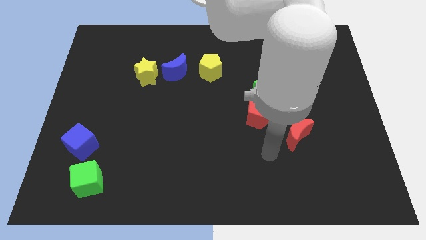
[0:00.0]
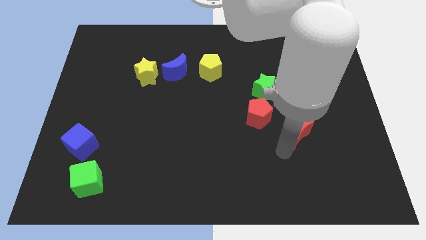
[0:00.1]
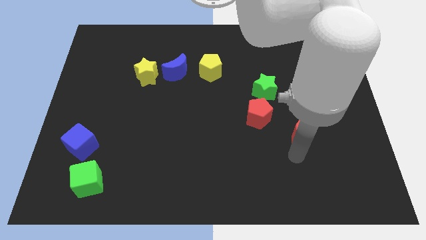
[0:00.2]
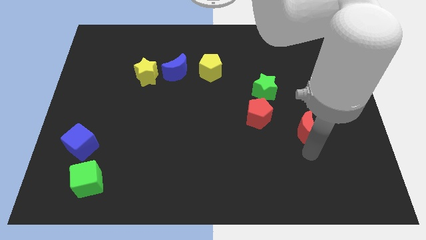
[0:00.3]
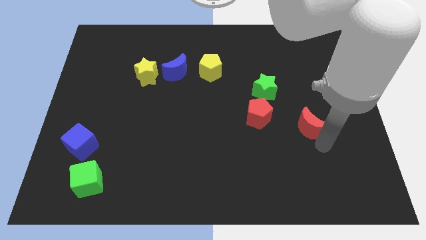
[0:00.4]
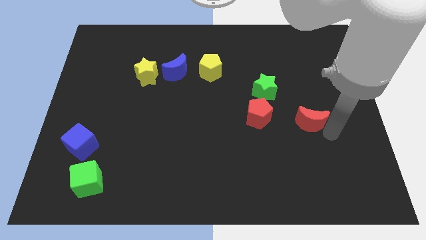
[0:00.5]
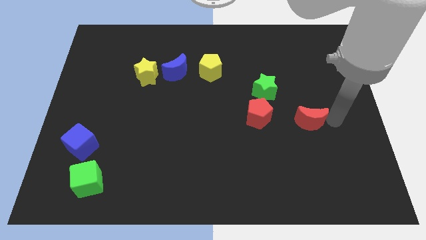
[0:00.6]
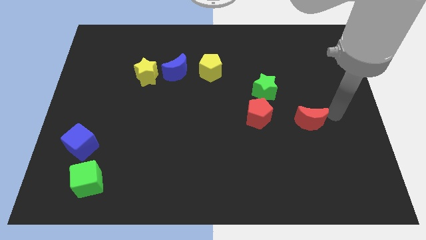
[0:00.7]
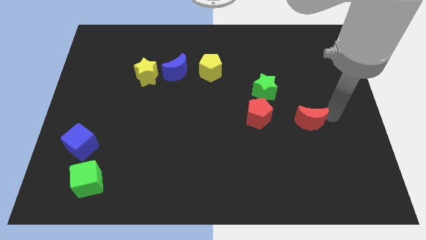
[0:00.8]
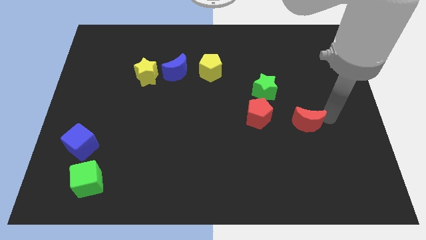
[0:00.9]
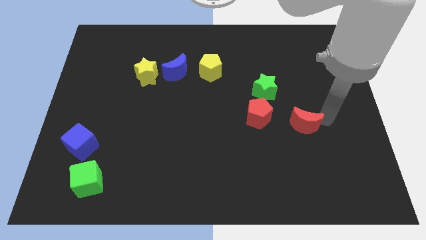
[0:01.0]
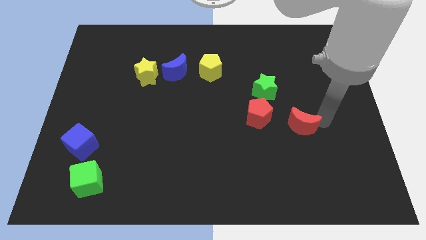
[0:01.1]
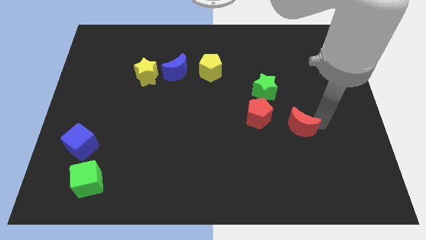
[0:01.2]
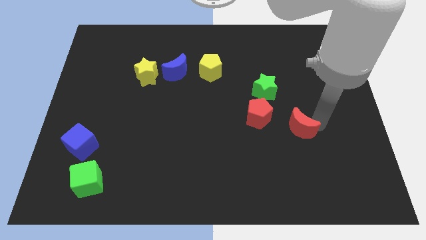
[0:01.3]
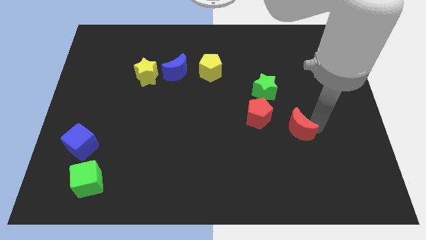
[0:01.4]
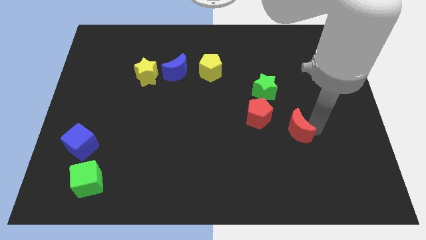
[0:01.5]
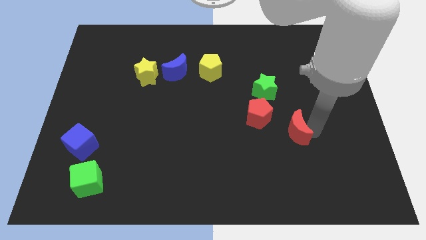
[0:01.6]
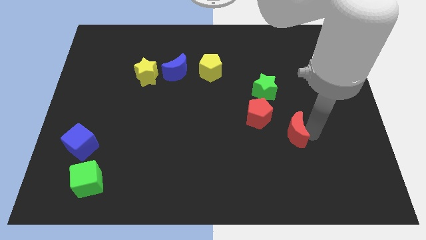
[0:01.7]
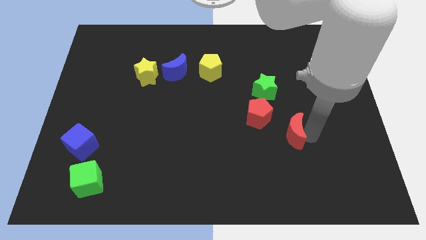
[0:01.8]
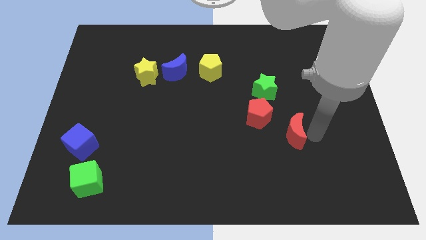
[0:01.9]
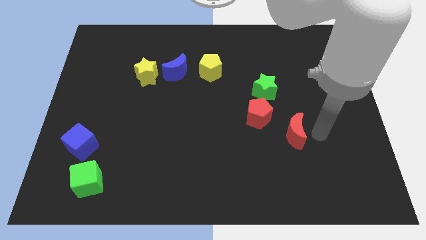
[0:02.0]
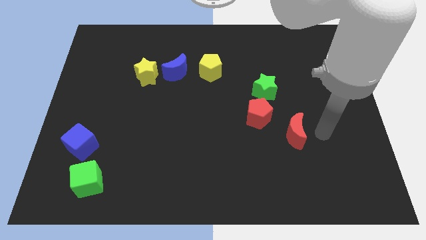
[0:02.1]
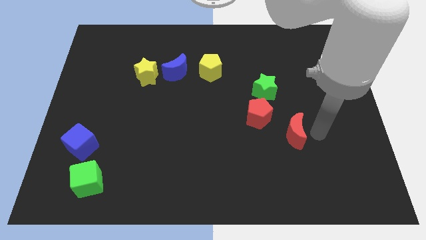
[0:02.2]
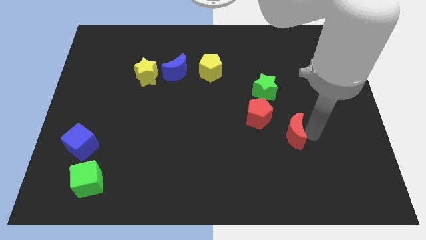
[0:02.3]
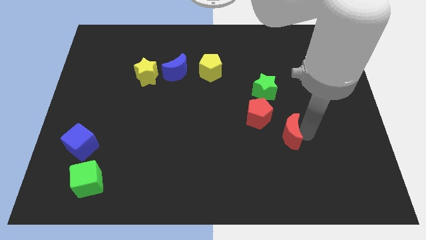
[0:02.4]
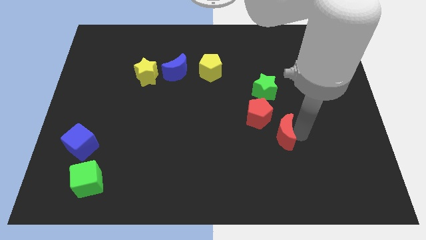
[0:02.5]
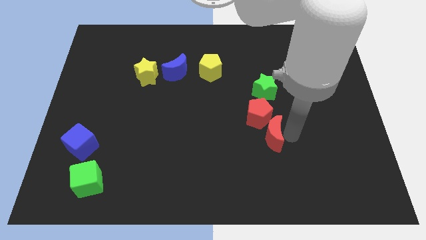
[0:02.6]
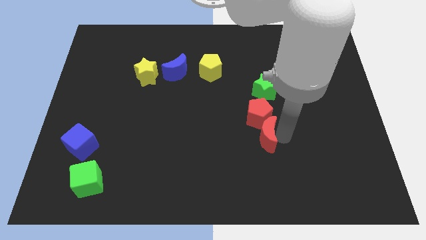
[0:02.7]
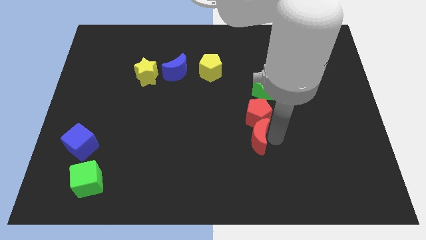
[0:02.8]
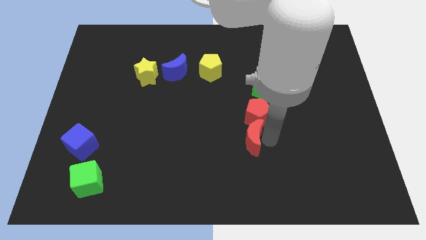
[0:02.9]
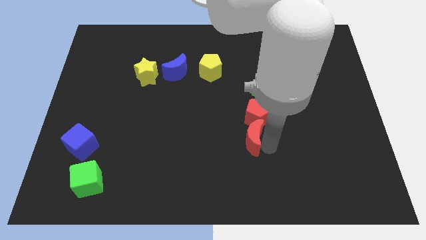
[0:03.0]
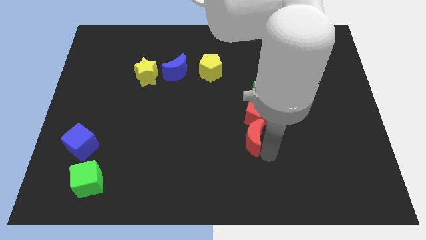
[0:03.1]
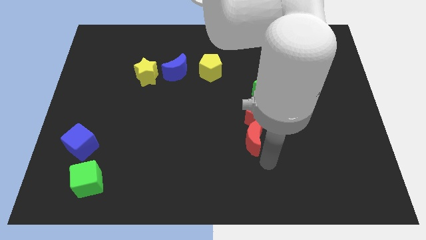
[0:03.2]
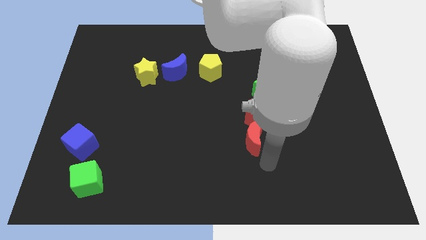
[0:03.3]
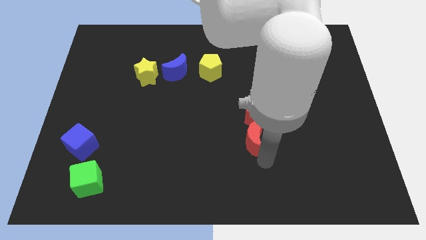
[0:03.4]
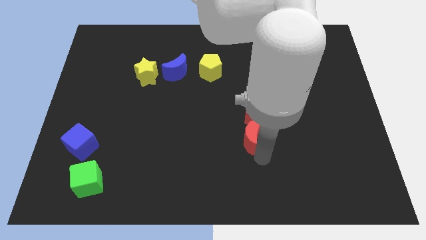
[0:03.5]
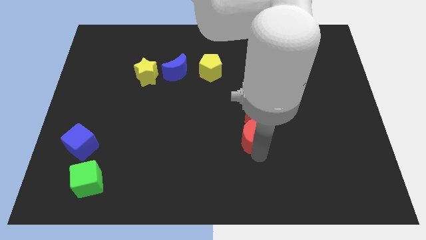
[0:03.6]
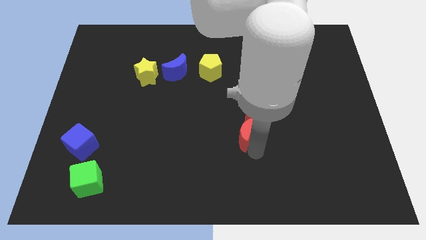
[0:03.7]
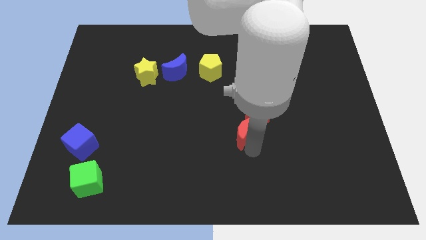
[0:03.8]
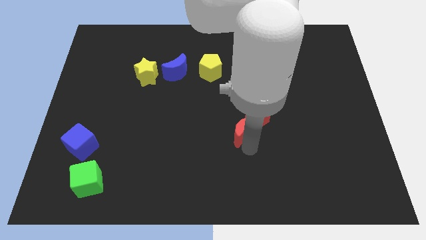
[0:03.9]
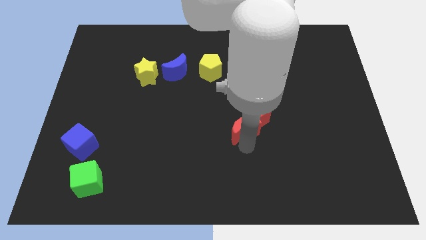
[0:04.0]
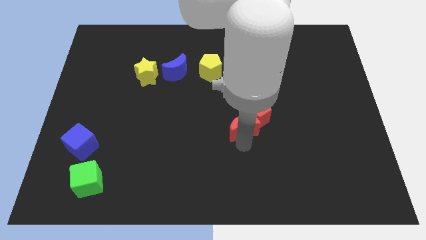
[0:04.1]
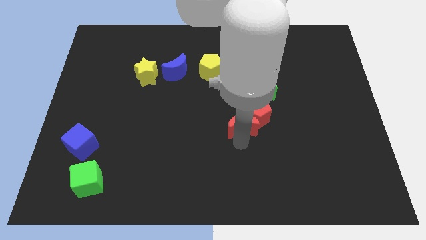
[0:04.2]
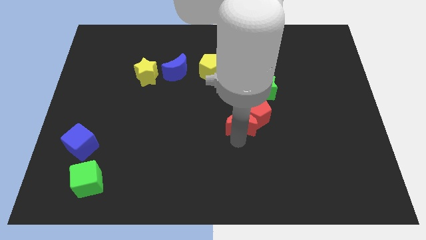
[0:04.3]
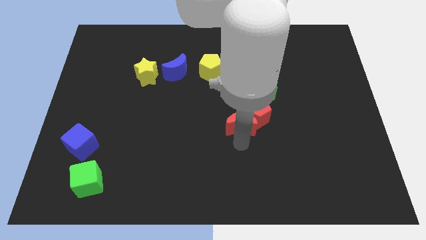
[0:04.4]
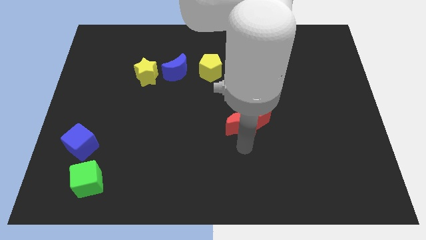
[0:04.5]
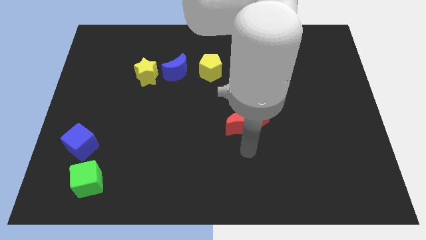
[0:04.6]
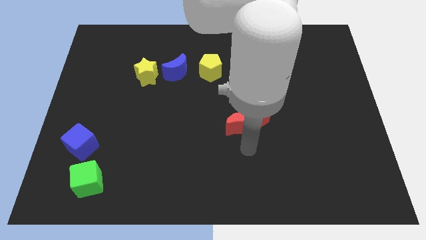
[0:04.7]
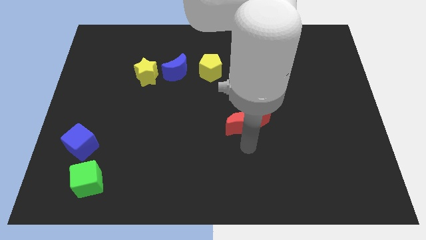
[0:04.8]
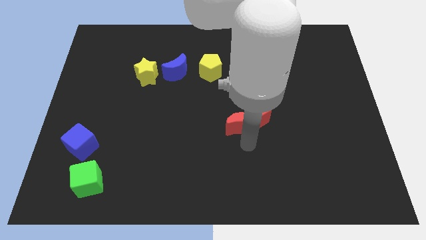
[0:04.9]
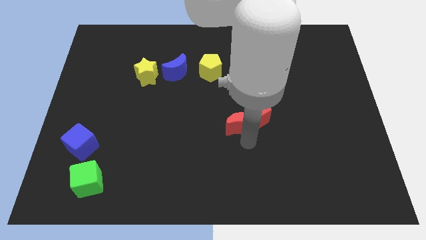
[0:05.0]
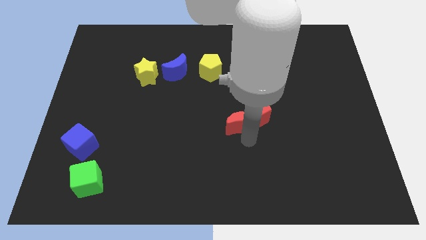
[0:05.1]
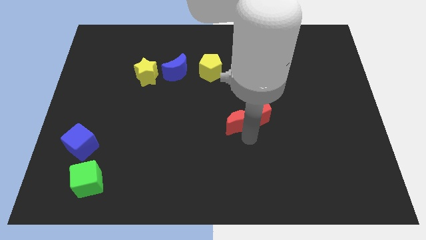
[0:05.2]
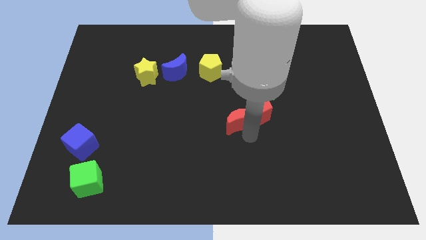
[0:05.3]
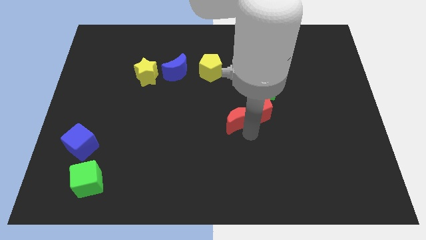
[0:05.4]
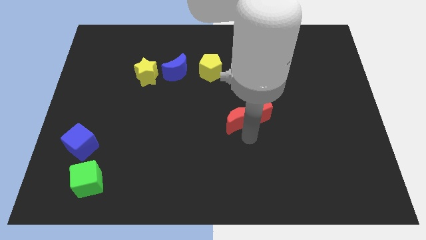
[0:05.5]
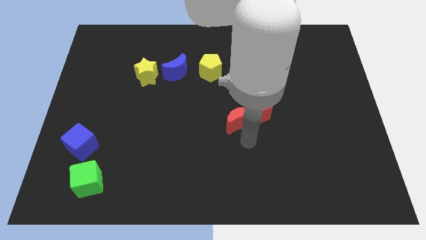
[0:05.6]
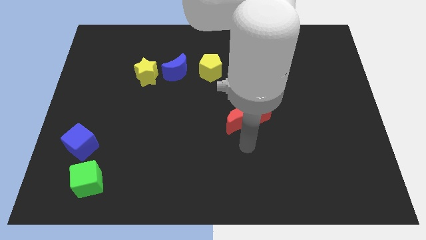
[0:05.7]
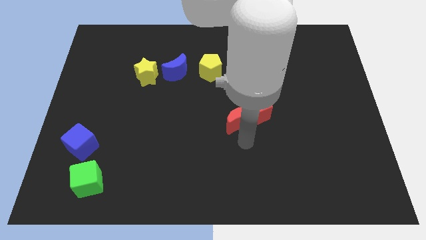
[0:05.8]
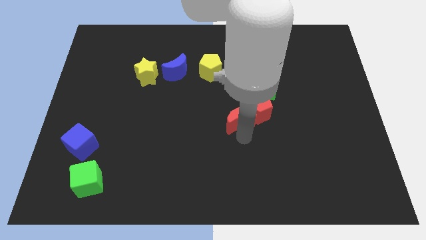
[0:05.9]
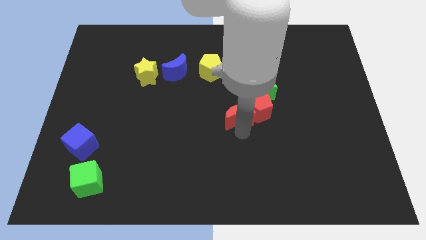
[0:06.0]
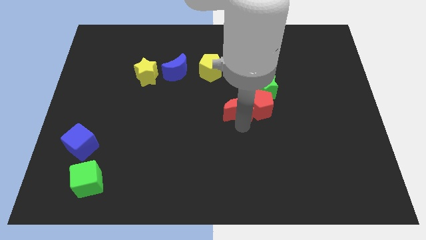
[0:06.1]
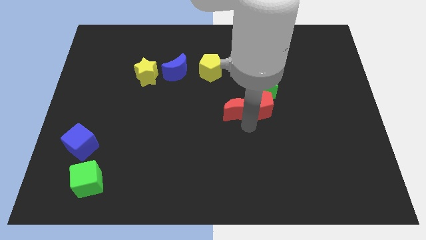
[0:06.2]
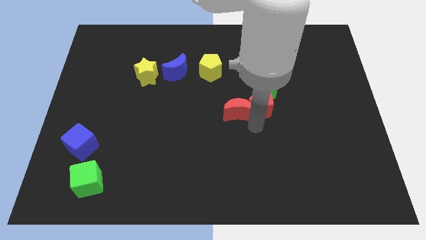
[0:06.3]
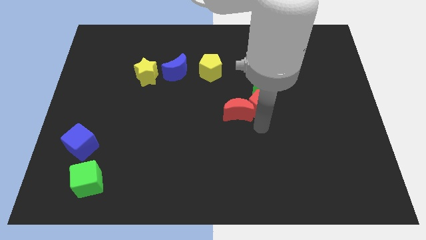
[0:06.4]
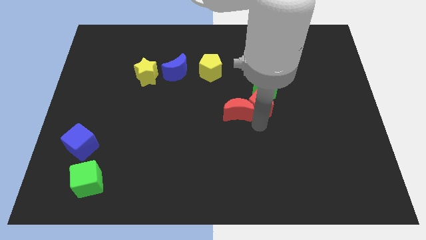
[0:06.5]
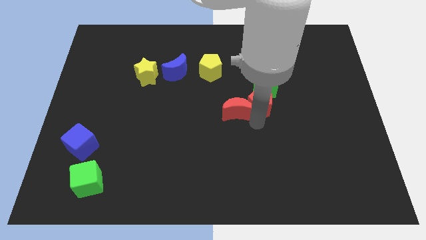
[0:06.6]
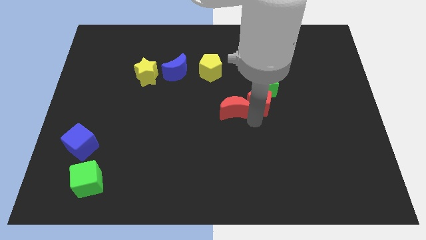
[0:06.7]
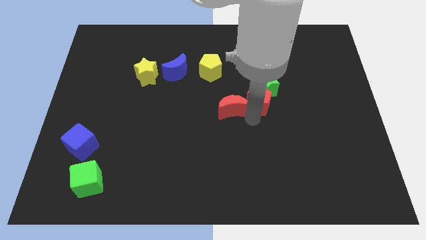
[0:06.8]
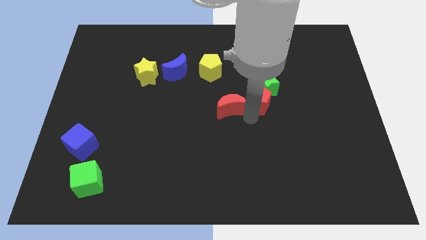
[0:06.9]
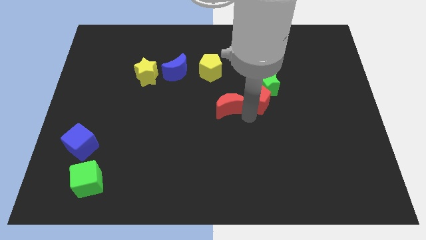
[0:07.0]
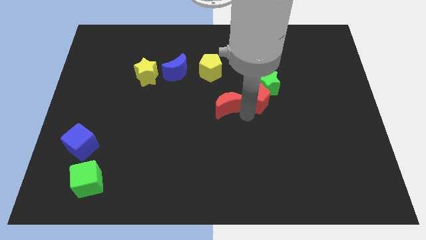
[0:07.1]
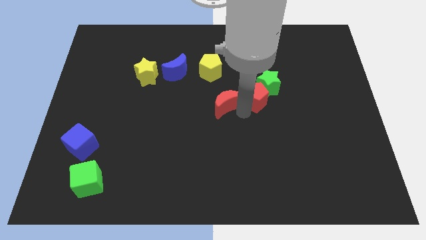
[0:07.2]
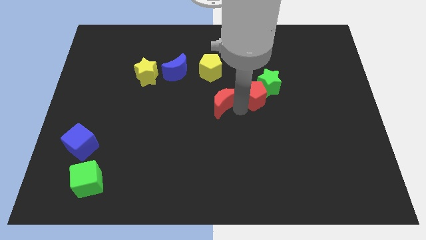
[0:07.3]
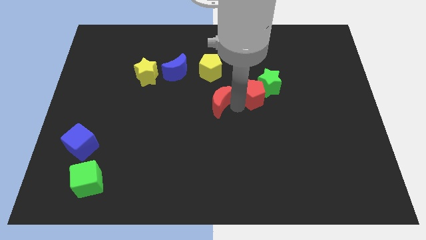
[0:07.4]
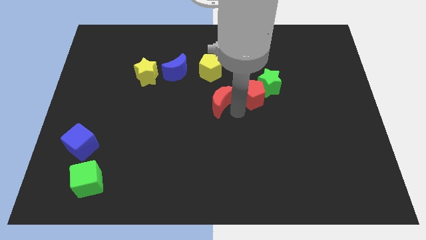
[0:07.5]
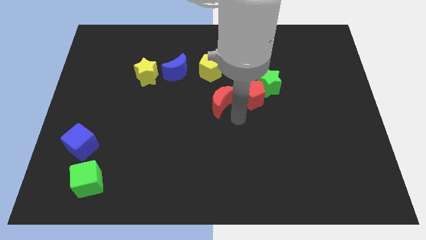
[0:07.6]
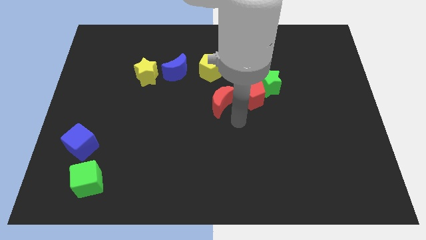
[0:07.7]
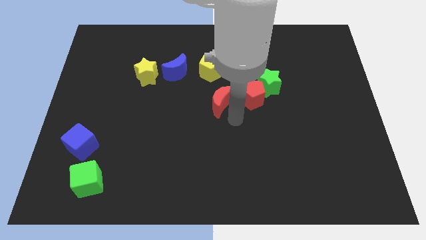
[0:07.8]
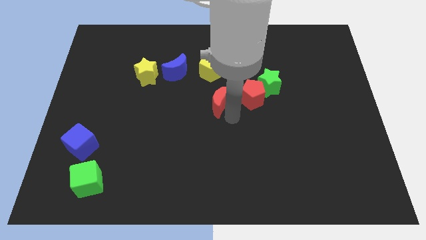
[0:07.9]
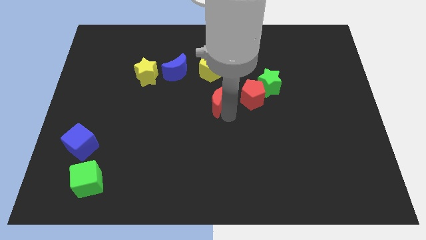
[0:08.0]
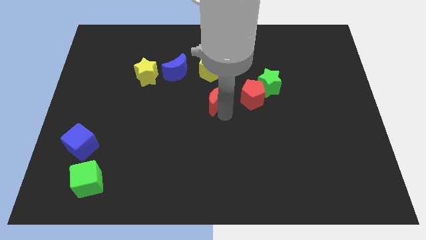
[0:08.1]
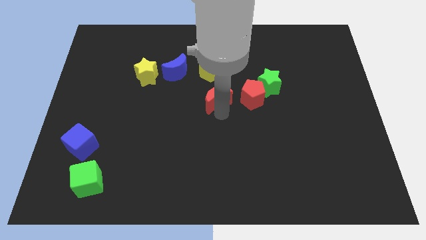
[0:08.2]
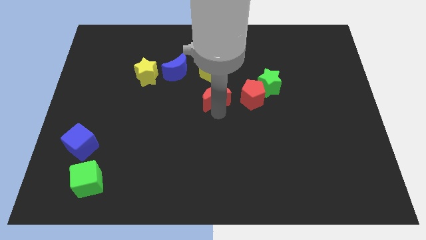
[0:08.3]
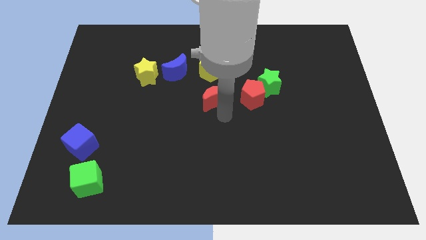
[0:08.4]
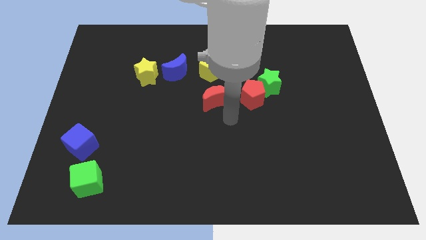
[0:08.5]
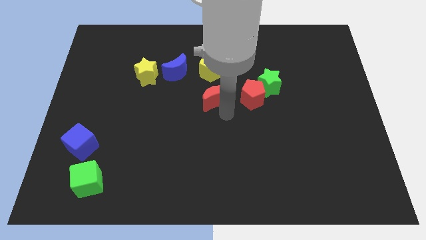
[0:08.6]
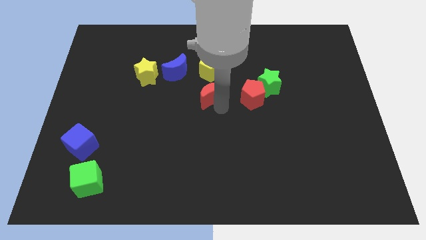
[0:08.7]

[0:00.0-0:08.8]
slide the red moon up and then to the left
